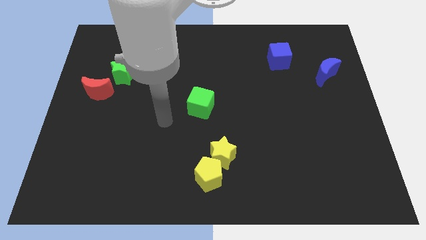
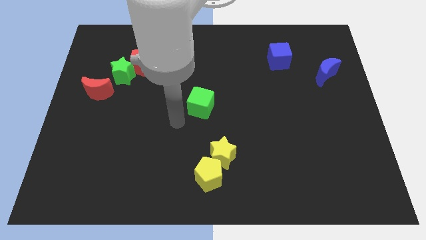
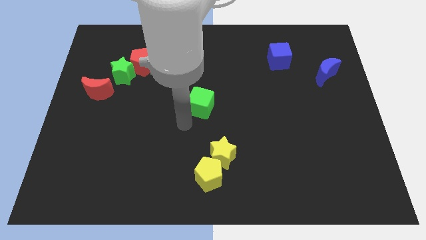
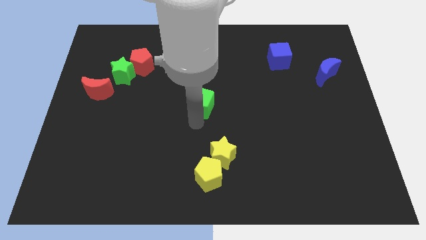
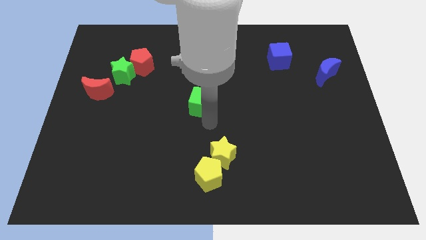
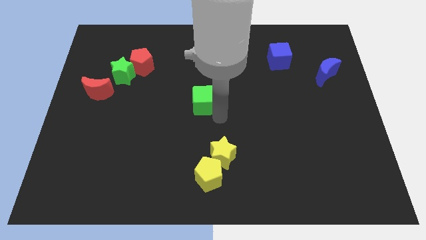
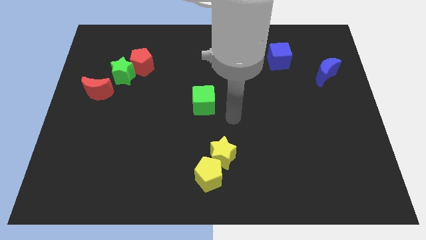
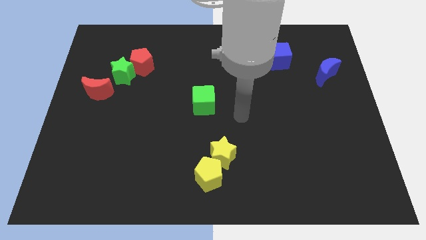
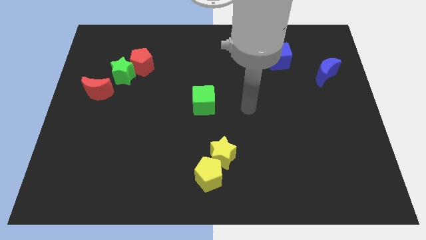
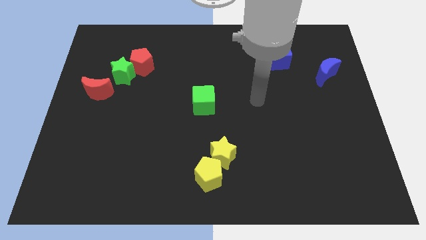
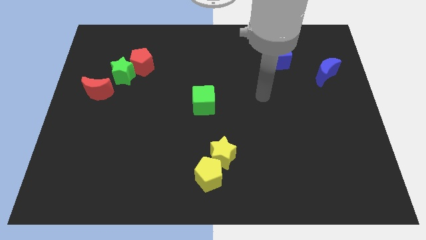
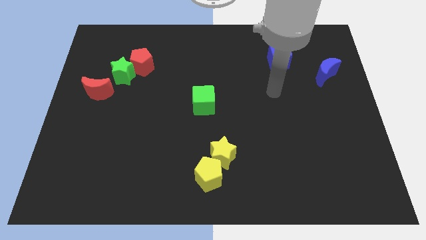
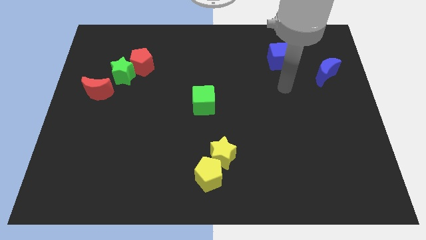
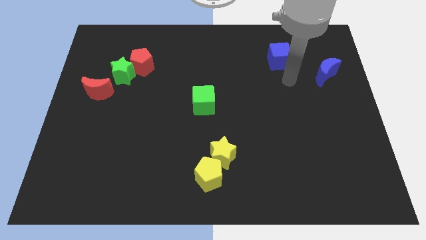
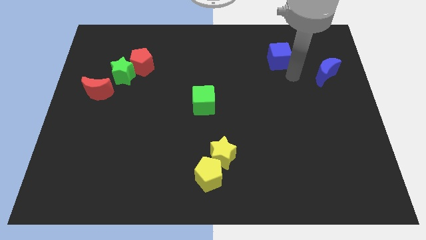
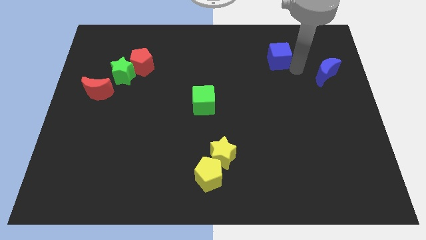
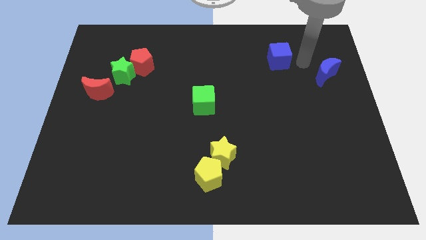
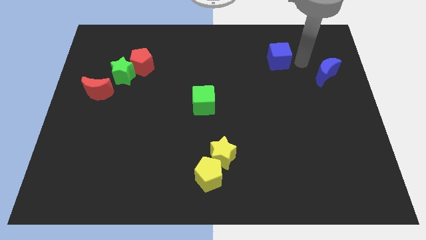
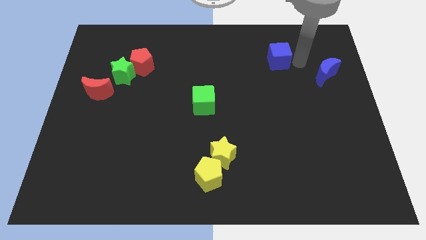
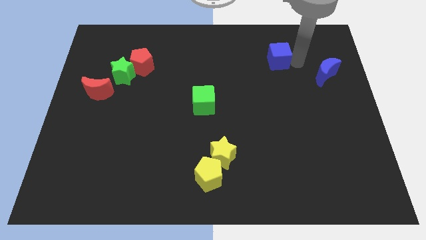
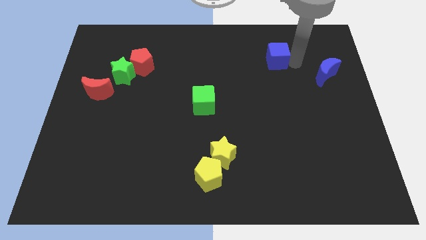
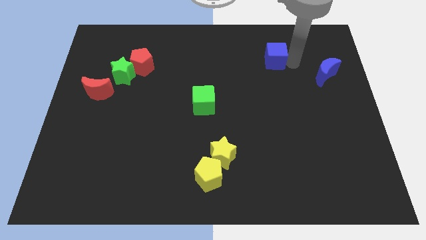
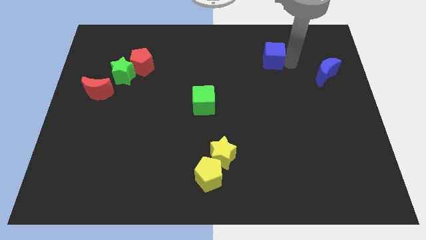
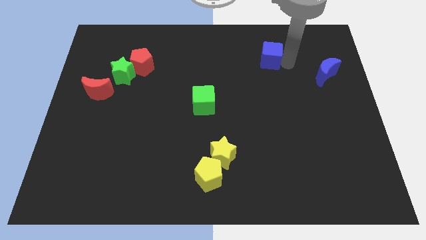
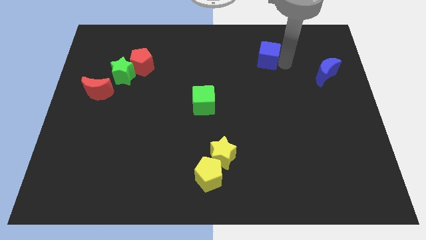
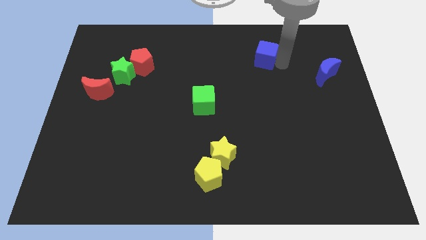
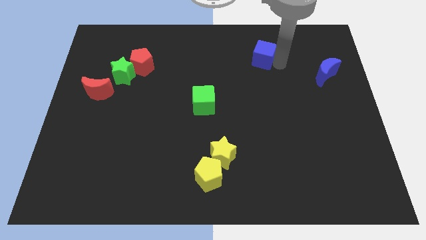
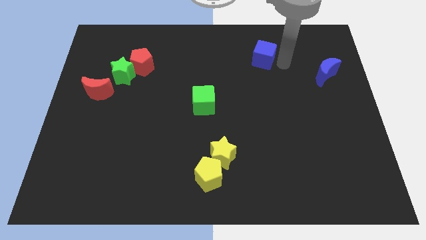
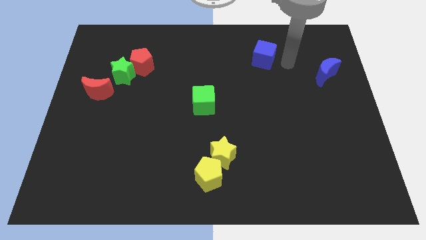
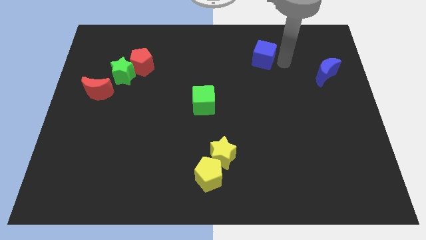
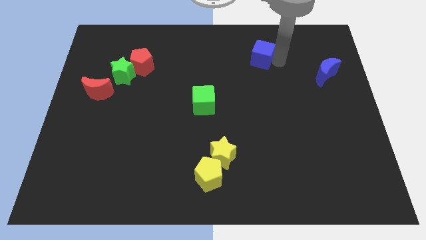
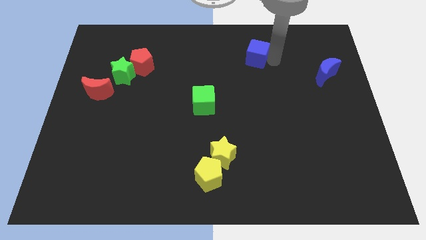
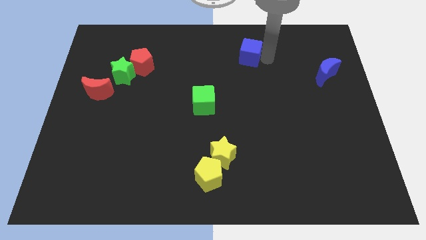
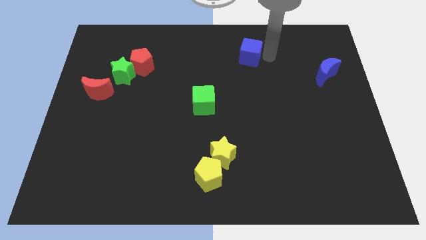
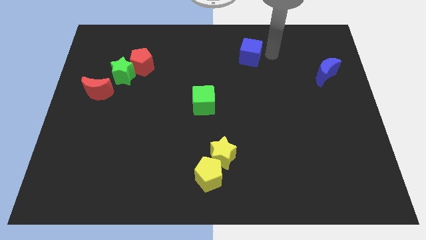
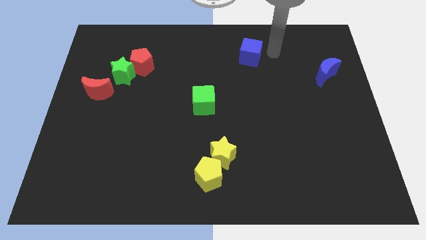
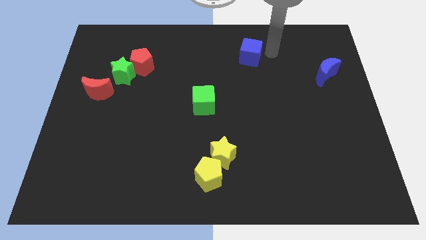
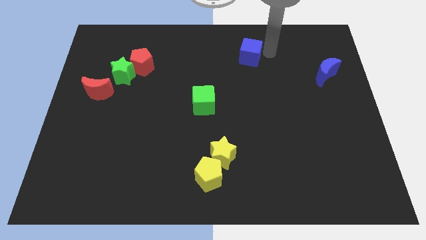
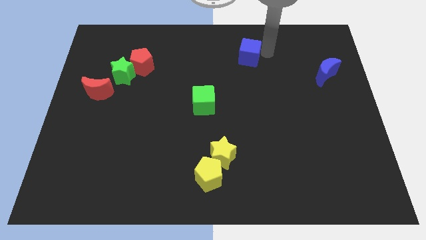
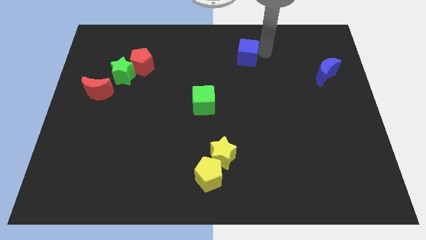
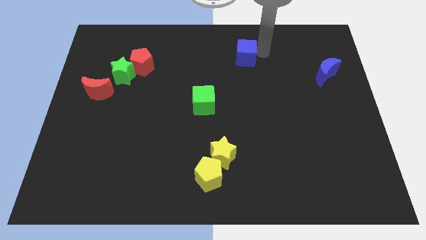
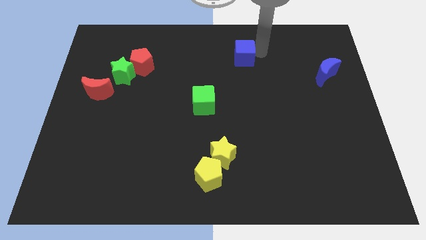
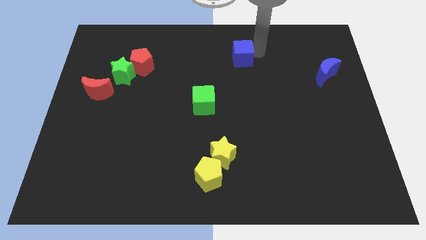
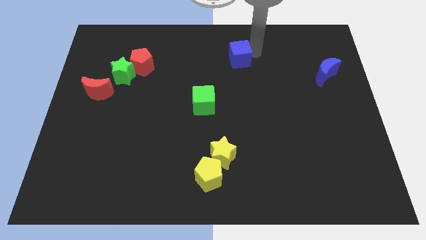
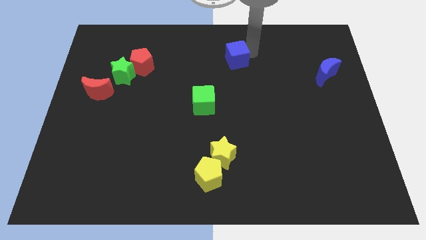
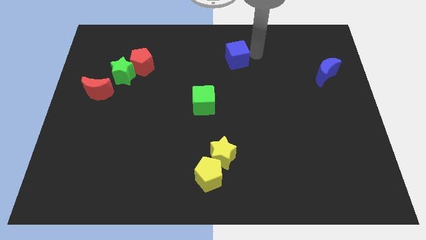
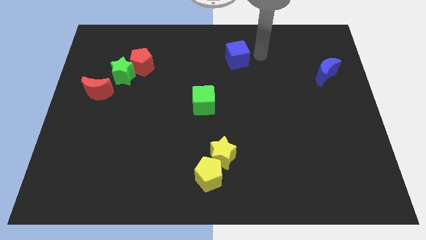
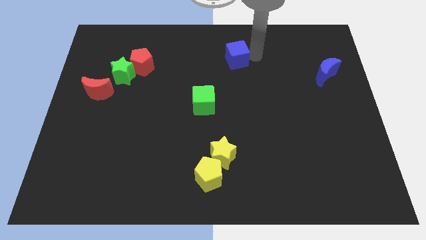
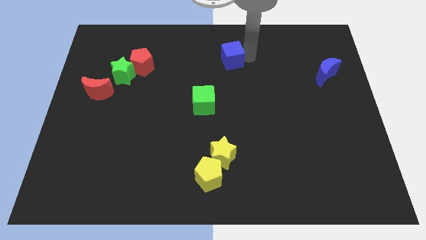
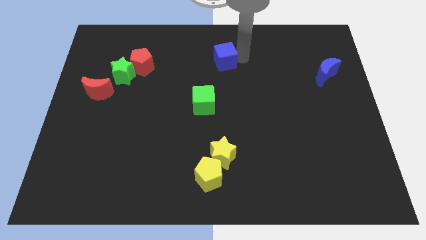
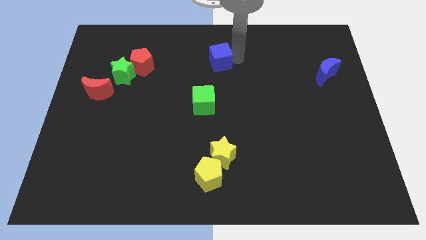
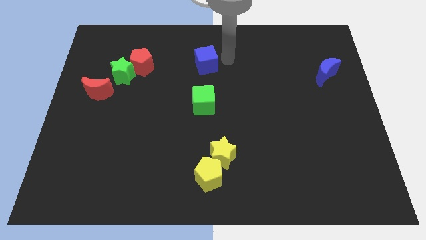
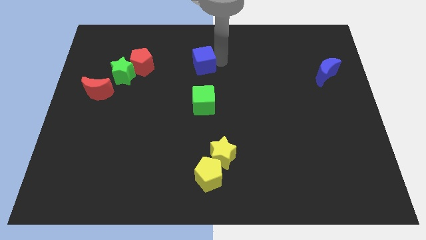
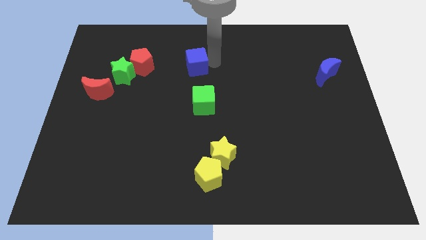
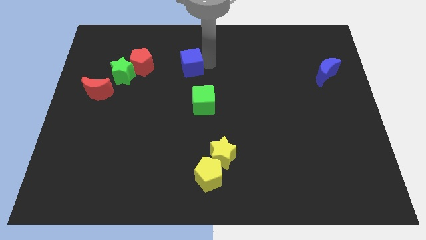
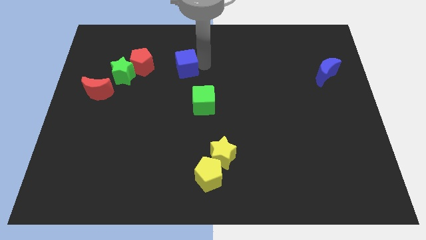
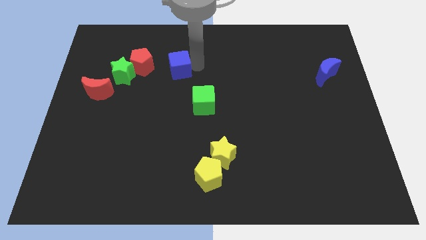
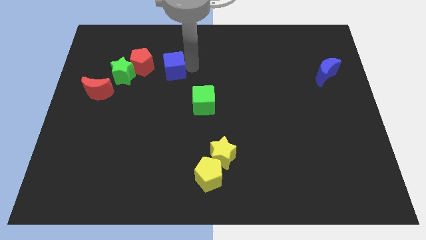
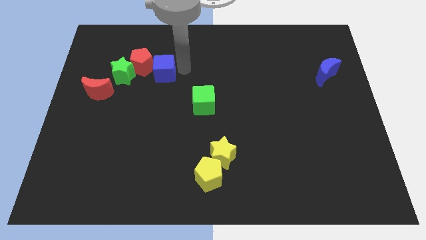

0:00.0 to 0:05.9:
move the blue cube towards the red pentagon
